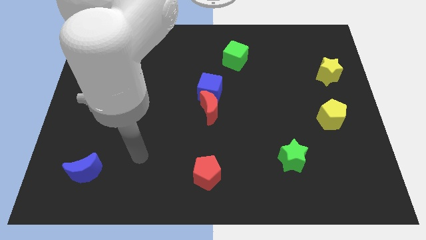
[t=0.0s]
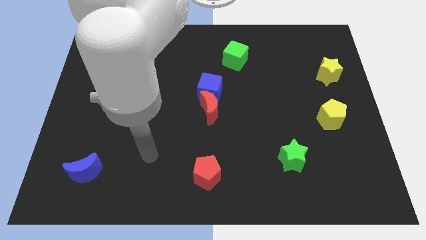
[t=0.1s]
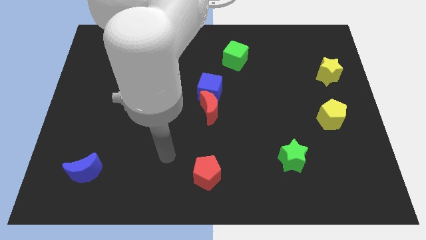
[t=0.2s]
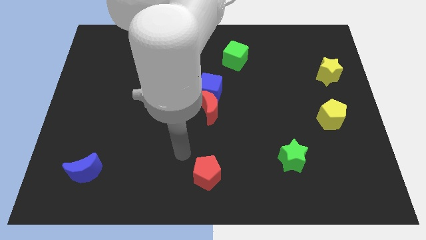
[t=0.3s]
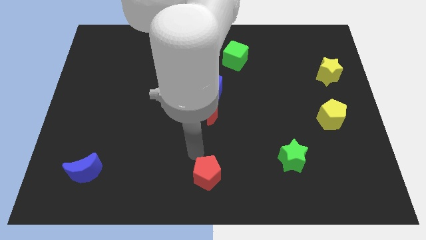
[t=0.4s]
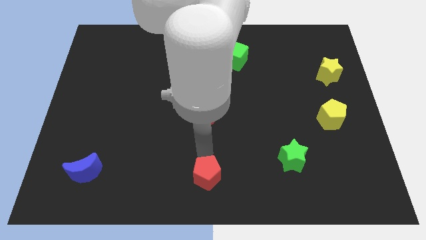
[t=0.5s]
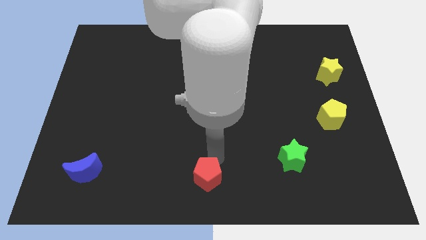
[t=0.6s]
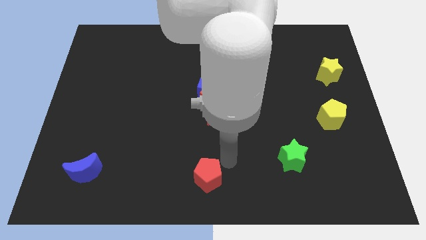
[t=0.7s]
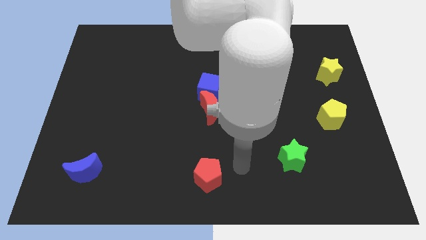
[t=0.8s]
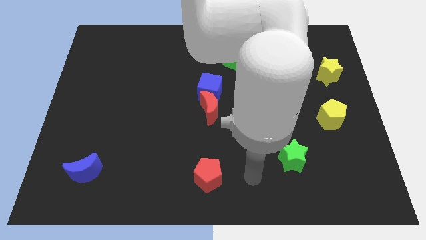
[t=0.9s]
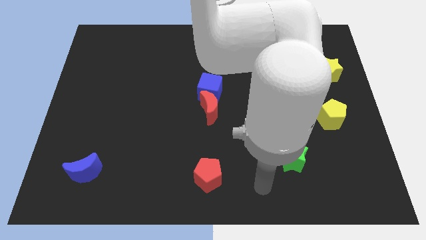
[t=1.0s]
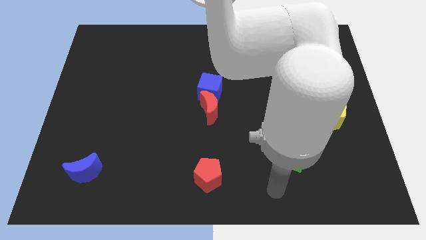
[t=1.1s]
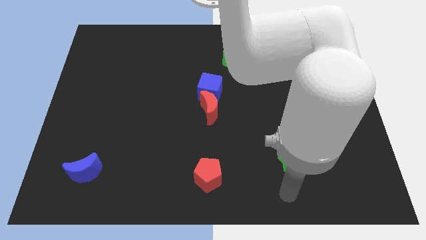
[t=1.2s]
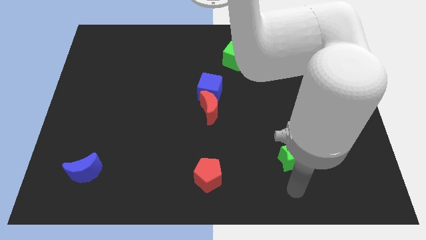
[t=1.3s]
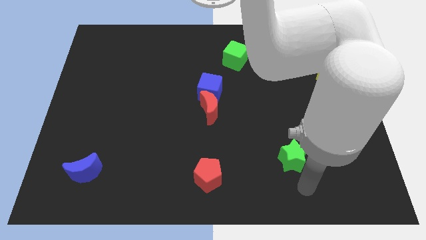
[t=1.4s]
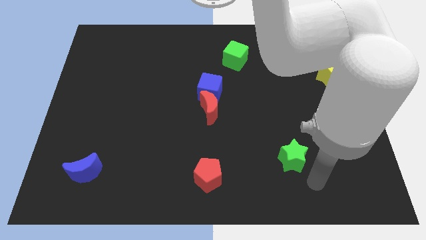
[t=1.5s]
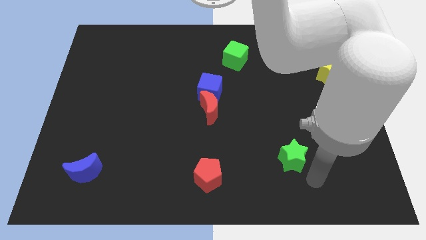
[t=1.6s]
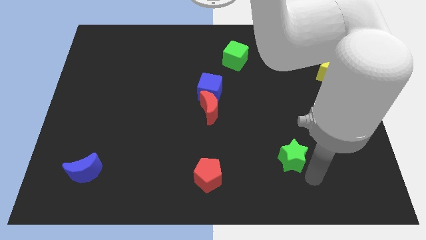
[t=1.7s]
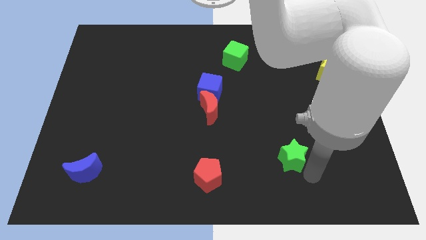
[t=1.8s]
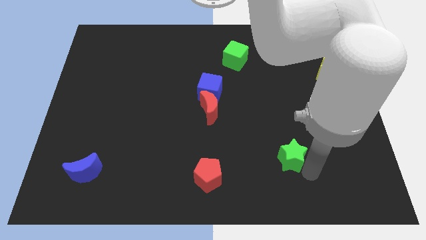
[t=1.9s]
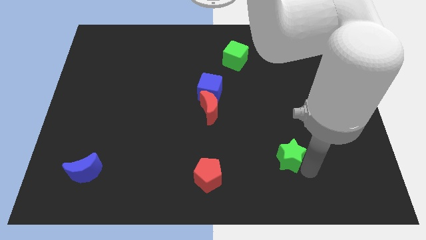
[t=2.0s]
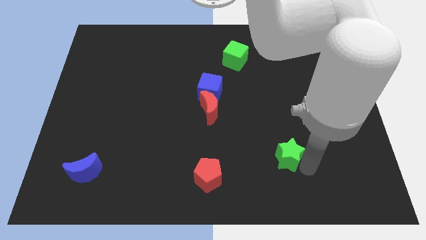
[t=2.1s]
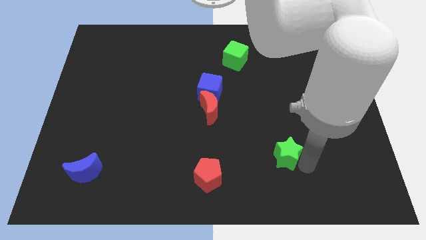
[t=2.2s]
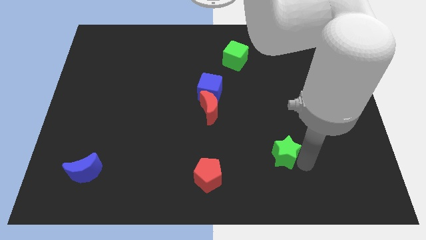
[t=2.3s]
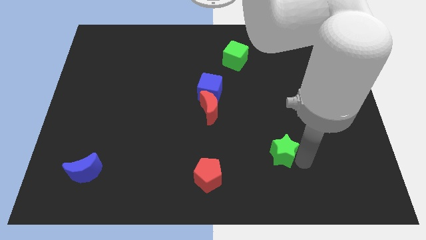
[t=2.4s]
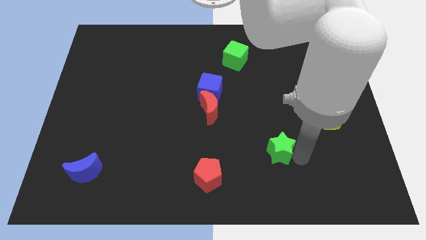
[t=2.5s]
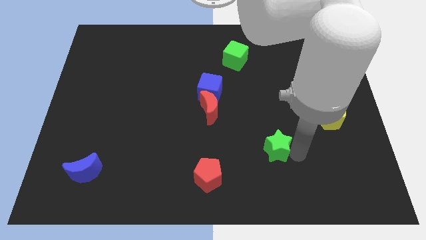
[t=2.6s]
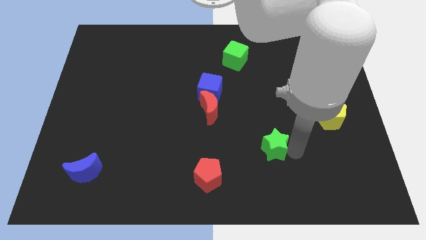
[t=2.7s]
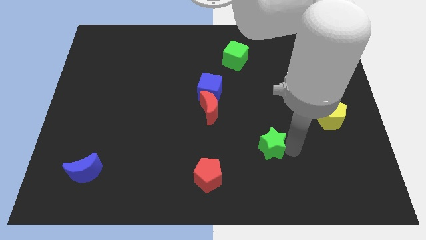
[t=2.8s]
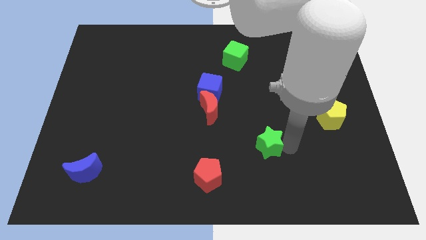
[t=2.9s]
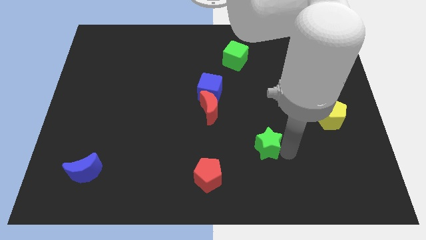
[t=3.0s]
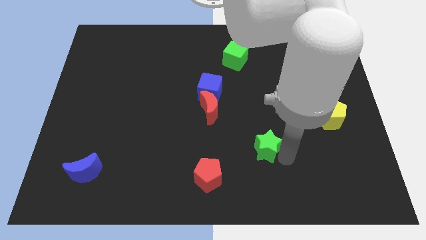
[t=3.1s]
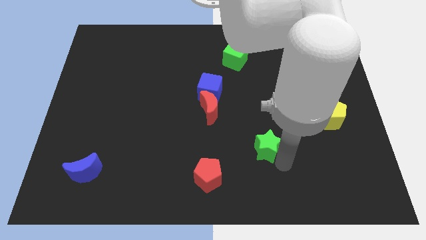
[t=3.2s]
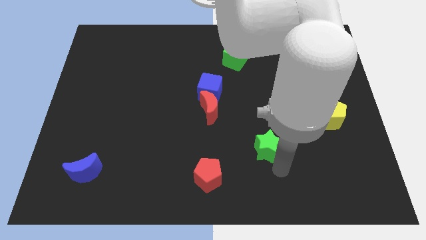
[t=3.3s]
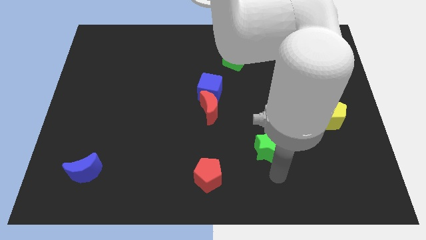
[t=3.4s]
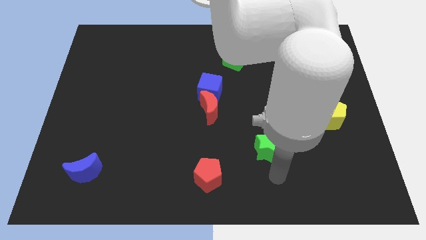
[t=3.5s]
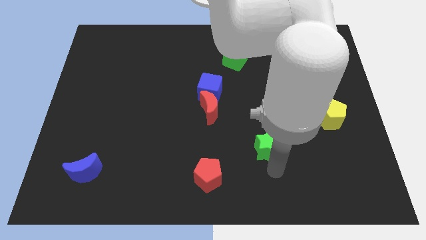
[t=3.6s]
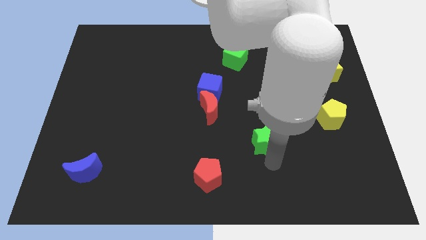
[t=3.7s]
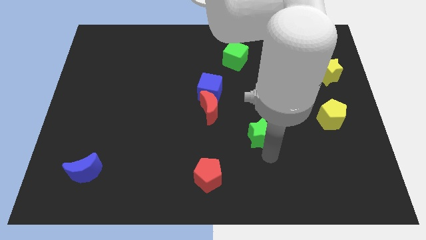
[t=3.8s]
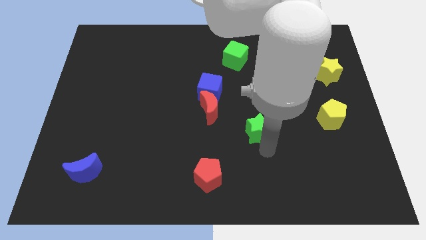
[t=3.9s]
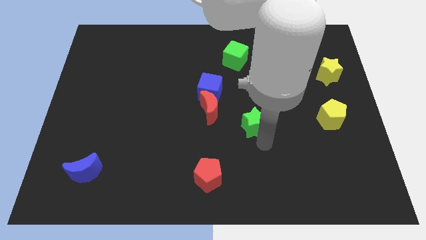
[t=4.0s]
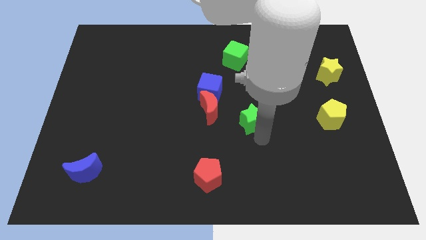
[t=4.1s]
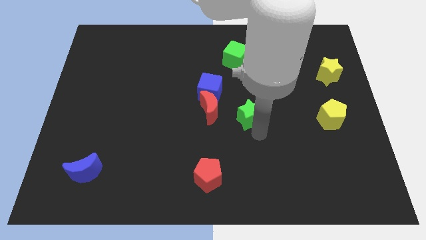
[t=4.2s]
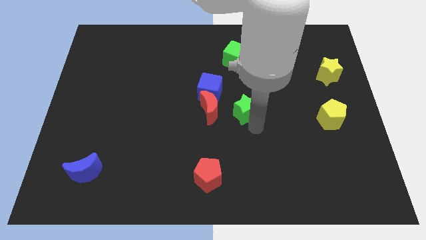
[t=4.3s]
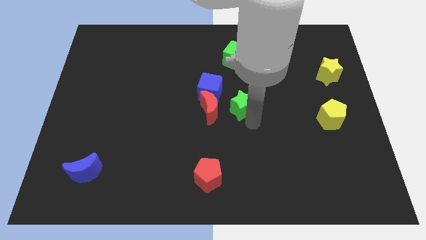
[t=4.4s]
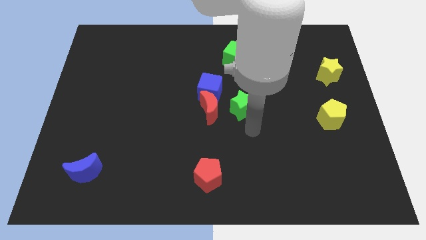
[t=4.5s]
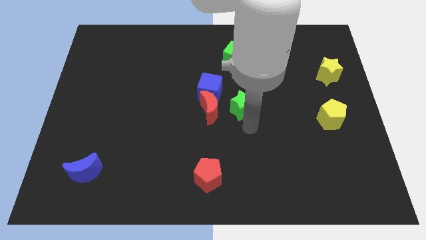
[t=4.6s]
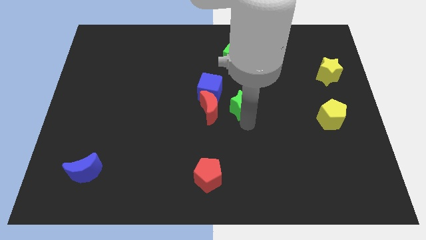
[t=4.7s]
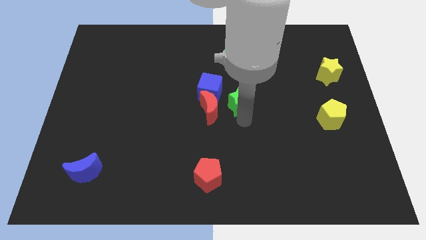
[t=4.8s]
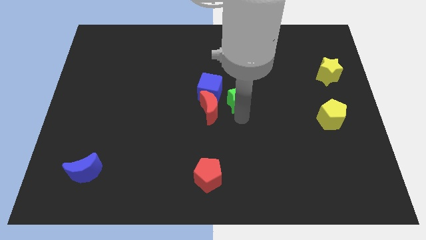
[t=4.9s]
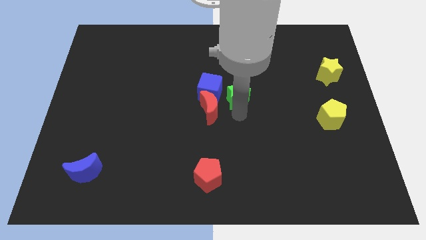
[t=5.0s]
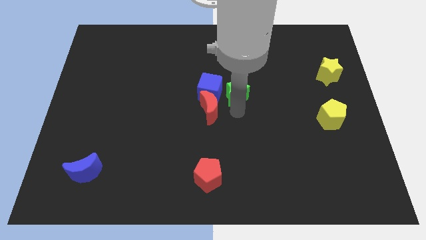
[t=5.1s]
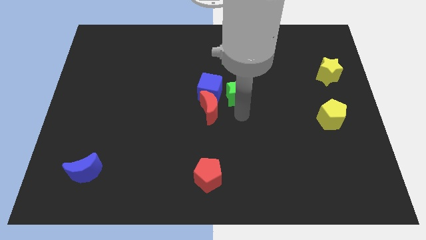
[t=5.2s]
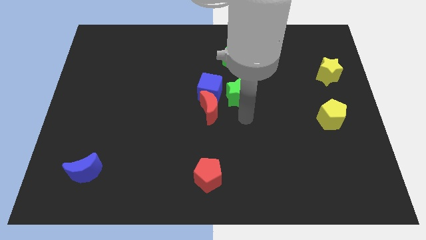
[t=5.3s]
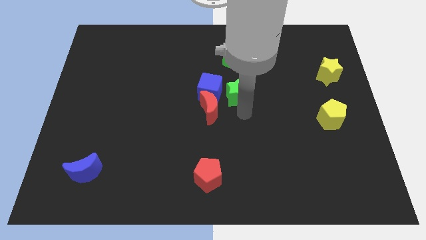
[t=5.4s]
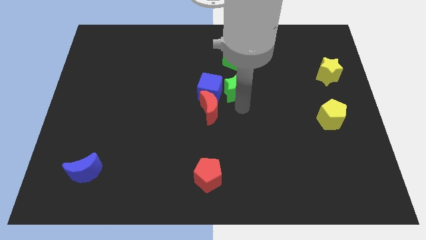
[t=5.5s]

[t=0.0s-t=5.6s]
move the green star to the top right of the blue cube

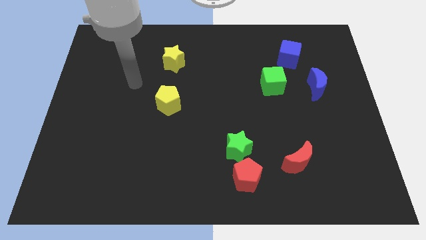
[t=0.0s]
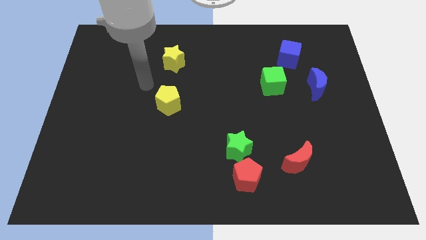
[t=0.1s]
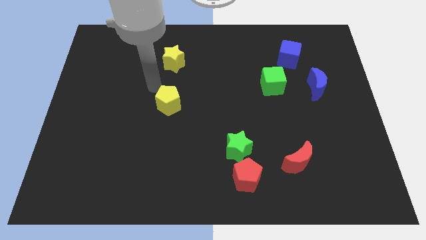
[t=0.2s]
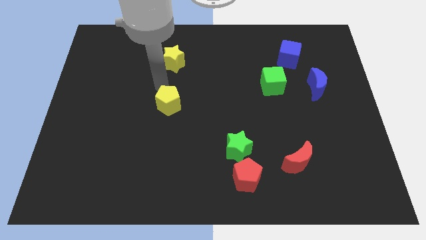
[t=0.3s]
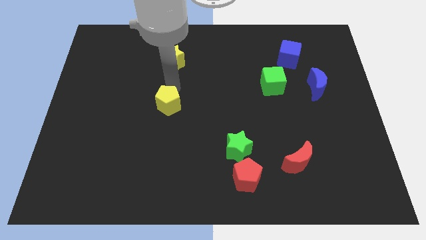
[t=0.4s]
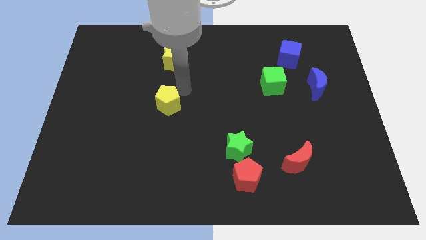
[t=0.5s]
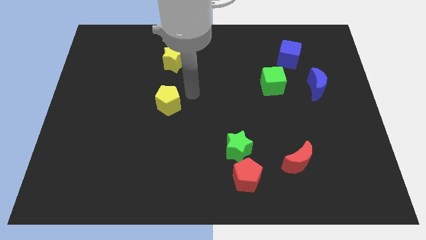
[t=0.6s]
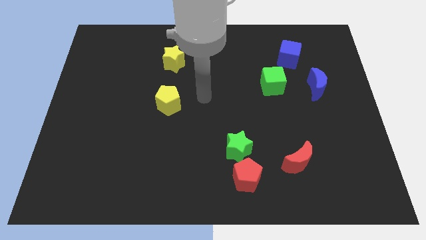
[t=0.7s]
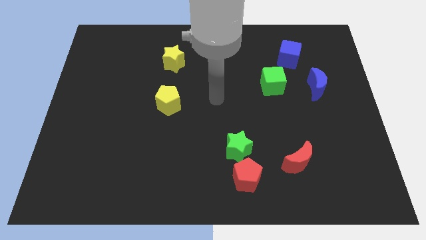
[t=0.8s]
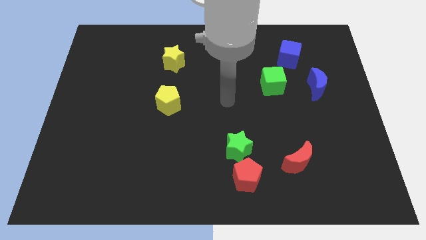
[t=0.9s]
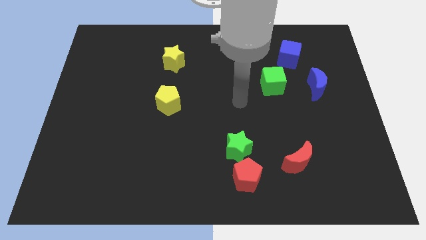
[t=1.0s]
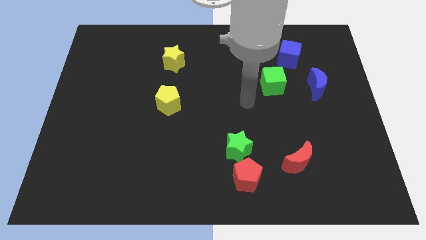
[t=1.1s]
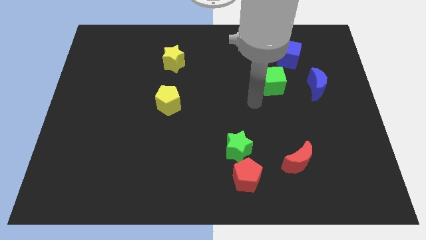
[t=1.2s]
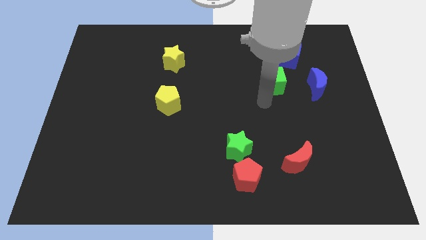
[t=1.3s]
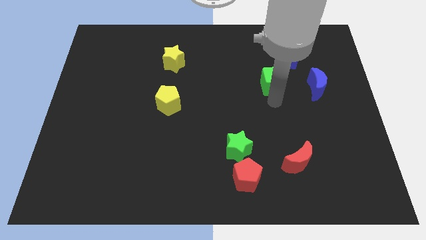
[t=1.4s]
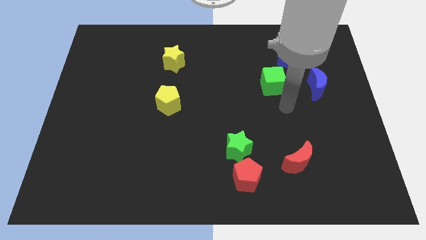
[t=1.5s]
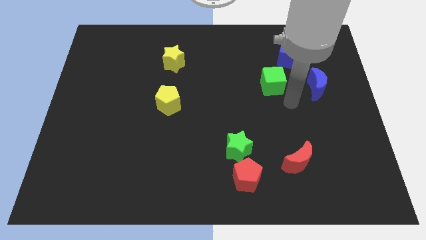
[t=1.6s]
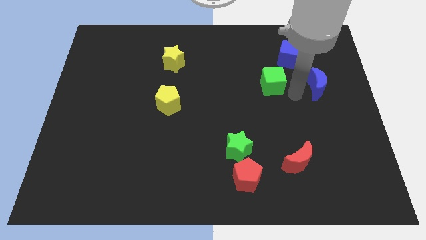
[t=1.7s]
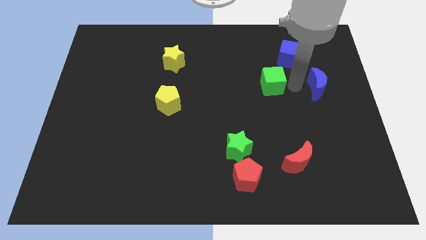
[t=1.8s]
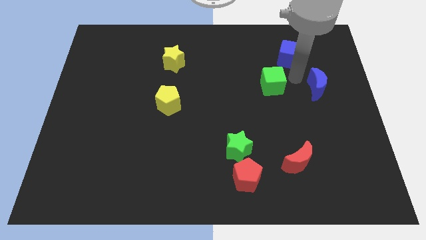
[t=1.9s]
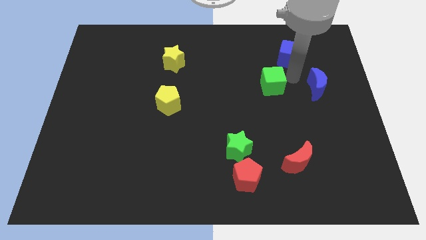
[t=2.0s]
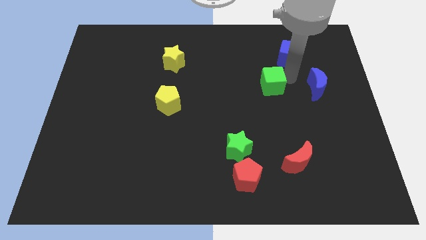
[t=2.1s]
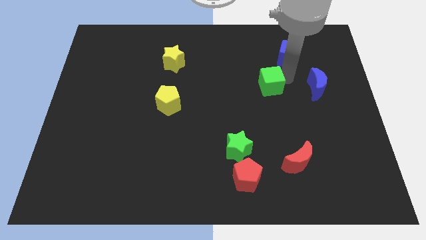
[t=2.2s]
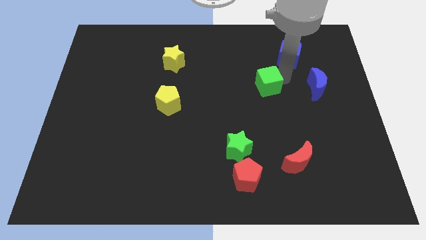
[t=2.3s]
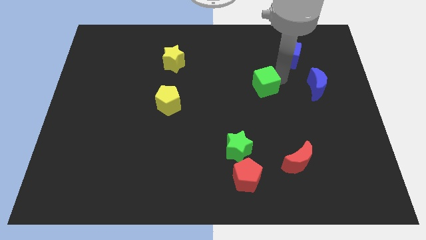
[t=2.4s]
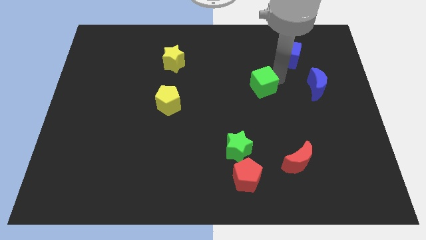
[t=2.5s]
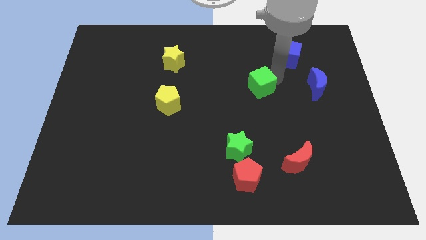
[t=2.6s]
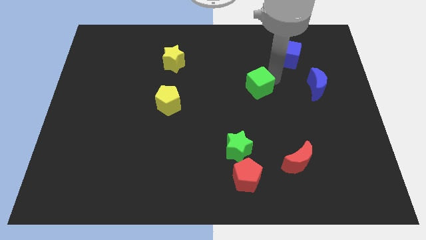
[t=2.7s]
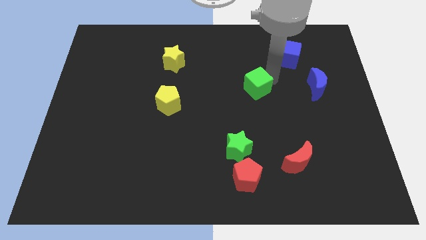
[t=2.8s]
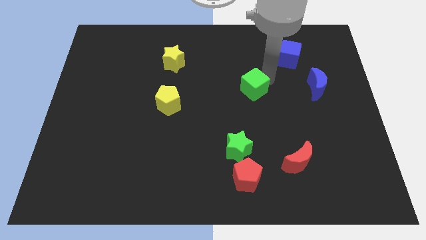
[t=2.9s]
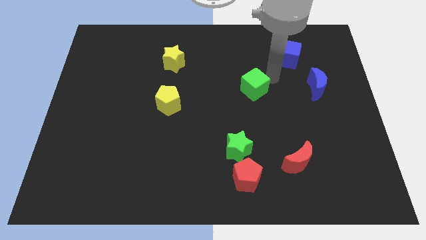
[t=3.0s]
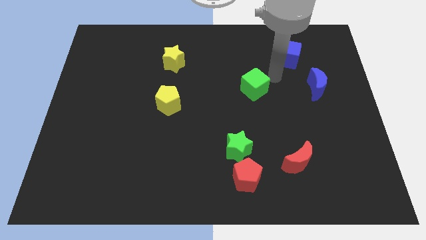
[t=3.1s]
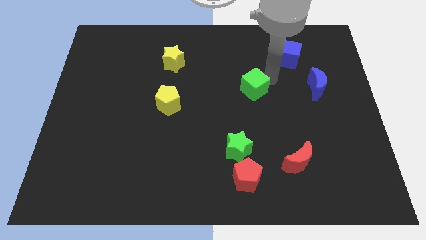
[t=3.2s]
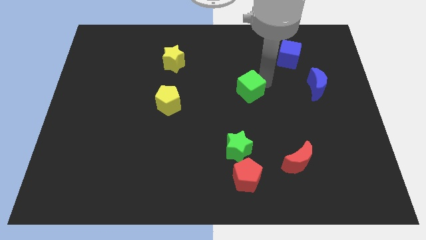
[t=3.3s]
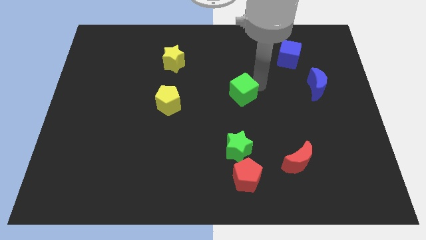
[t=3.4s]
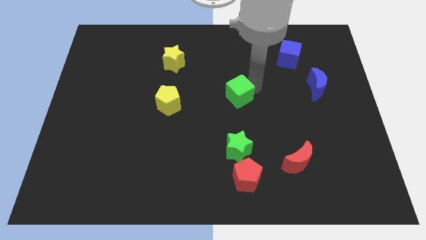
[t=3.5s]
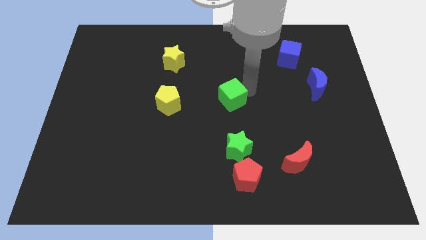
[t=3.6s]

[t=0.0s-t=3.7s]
put the green cube just right of the yellow pentagon
